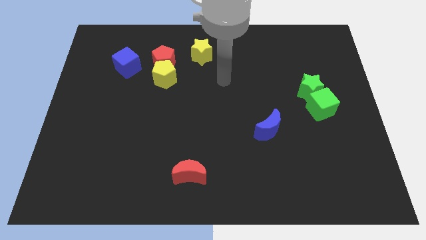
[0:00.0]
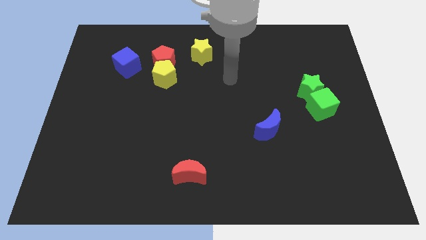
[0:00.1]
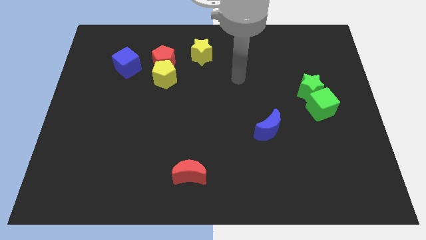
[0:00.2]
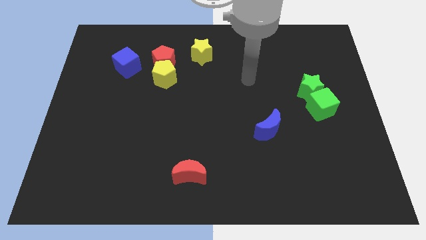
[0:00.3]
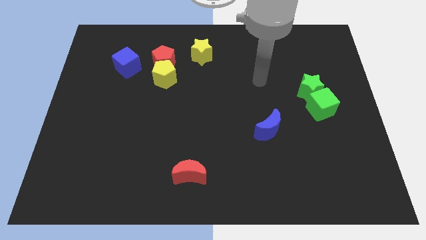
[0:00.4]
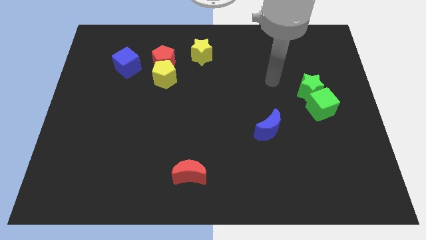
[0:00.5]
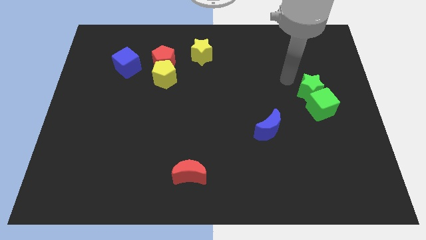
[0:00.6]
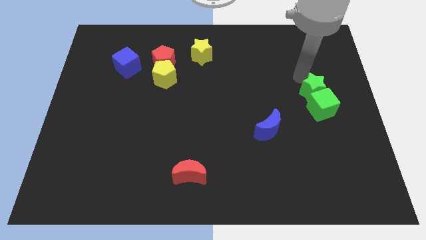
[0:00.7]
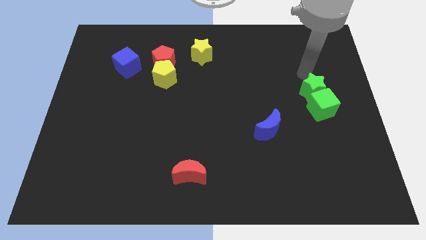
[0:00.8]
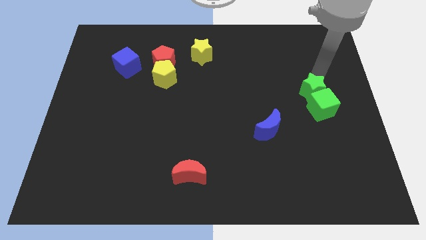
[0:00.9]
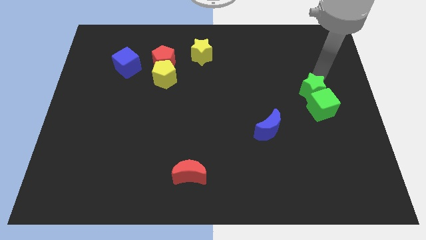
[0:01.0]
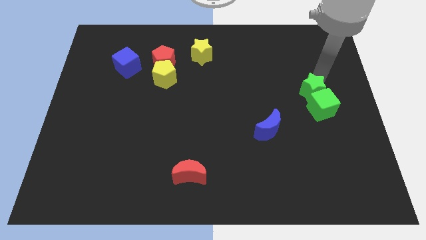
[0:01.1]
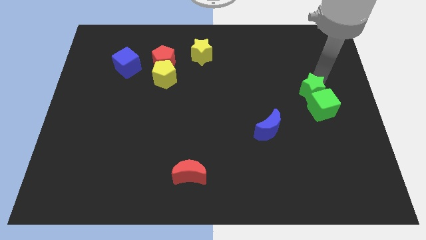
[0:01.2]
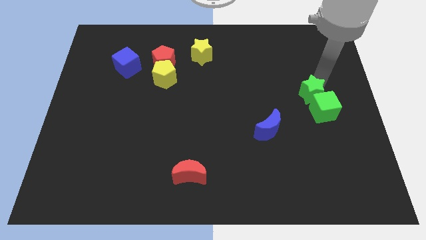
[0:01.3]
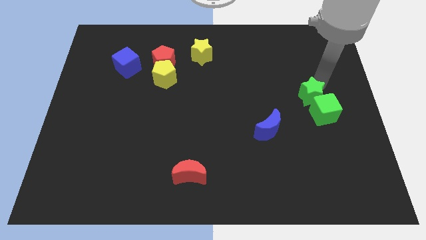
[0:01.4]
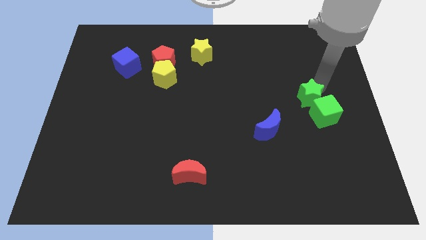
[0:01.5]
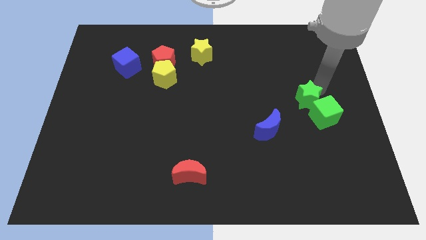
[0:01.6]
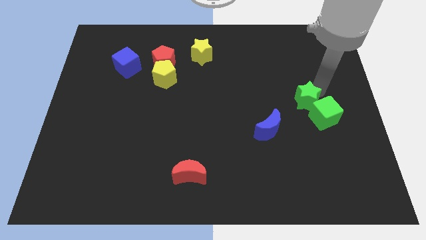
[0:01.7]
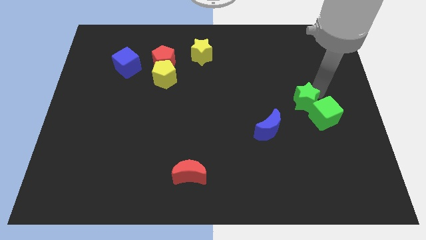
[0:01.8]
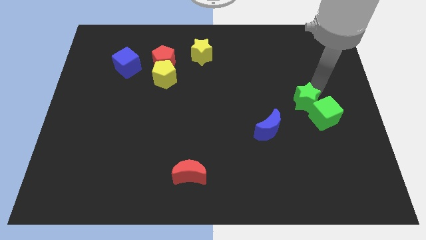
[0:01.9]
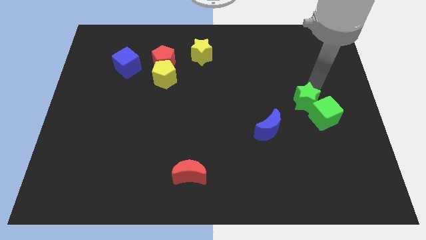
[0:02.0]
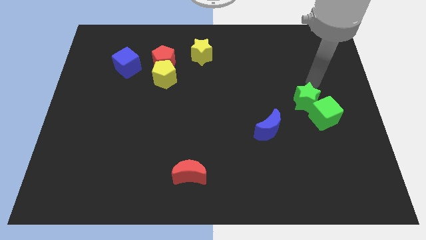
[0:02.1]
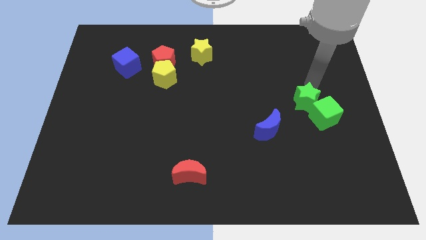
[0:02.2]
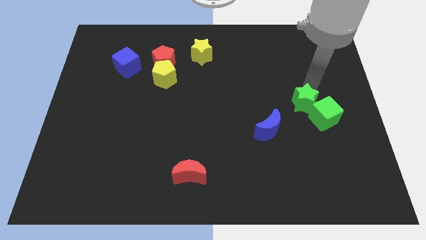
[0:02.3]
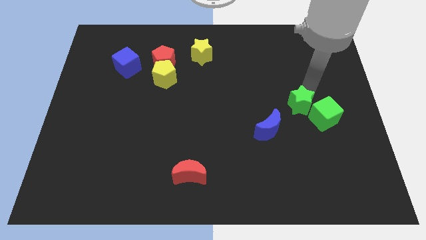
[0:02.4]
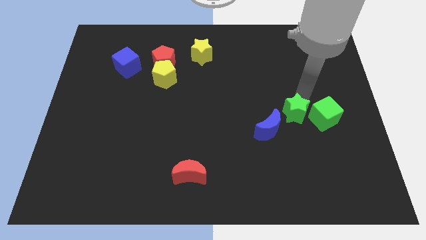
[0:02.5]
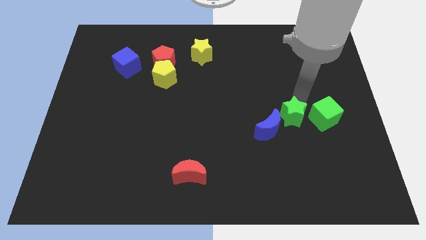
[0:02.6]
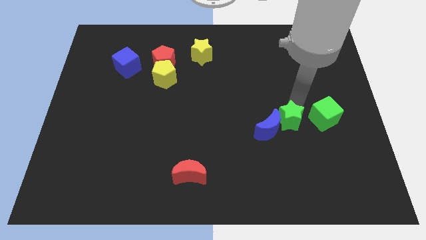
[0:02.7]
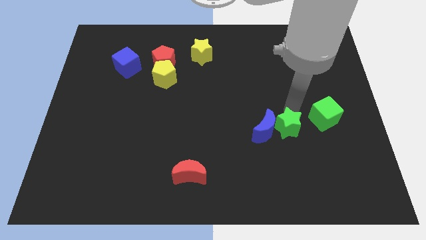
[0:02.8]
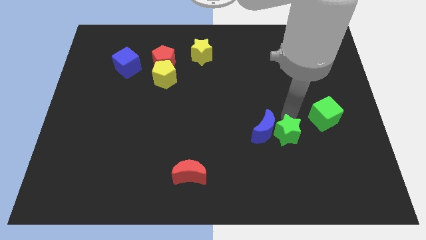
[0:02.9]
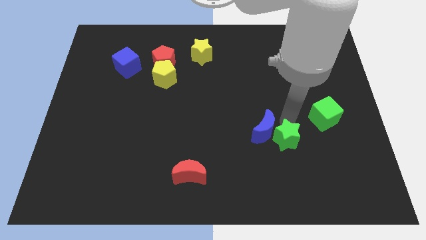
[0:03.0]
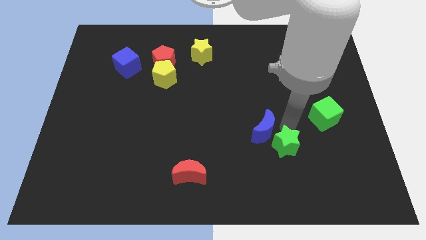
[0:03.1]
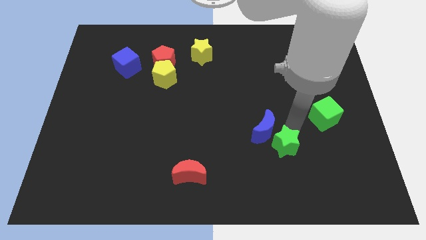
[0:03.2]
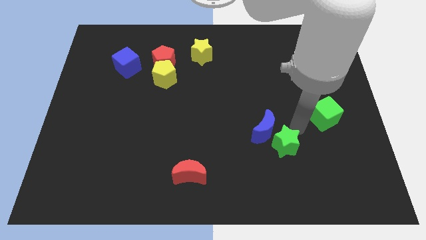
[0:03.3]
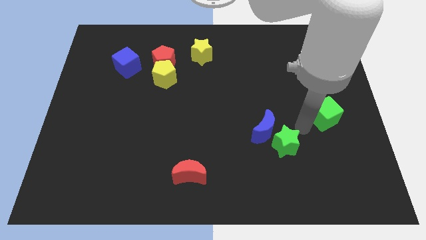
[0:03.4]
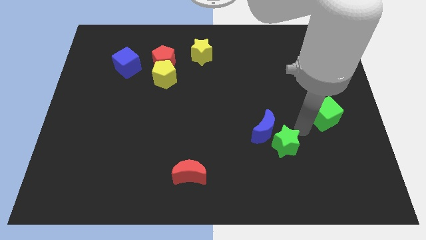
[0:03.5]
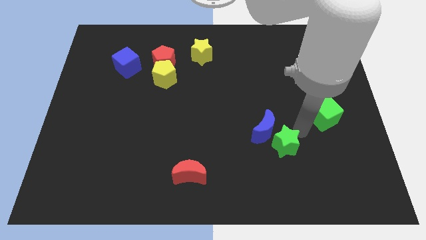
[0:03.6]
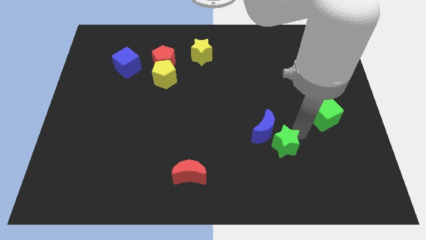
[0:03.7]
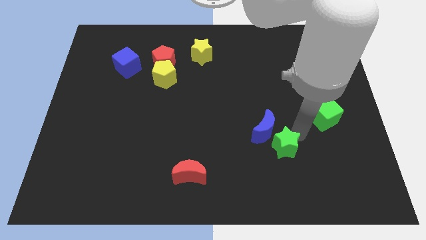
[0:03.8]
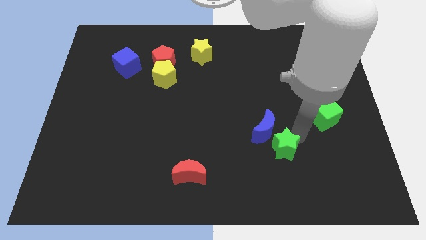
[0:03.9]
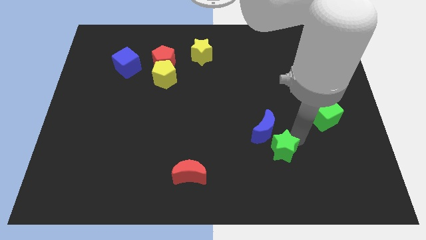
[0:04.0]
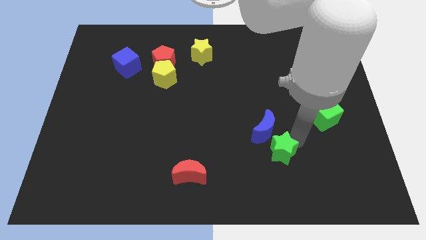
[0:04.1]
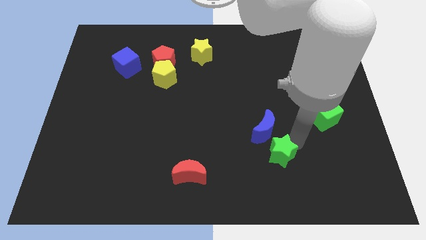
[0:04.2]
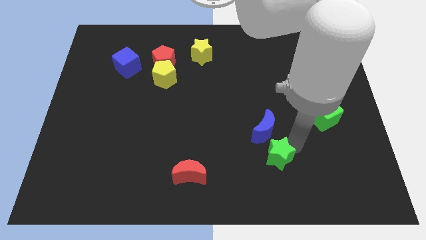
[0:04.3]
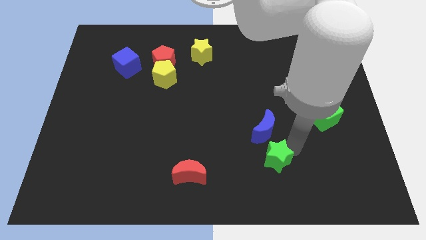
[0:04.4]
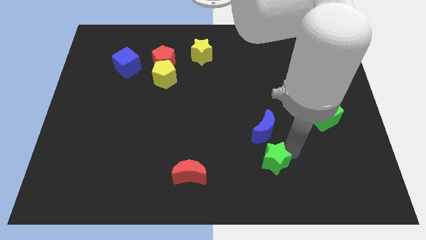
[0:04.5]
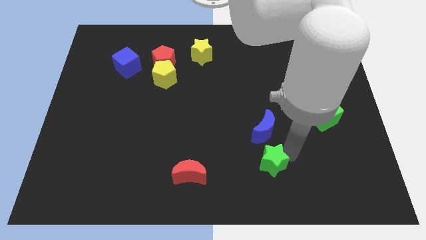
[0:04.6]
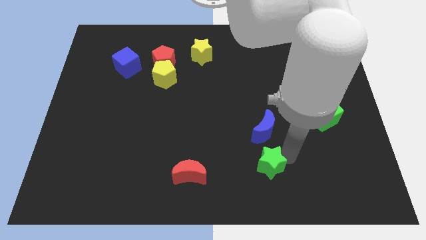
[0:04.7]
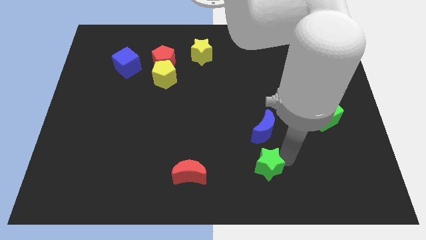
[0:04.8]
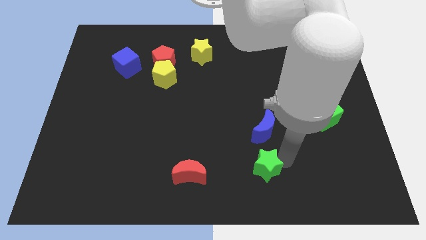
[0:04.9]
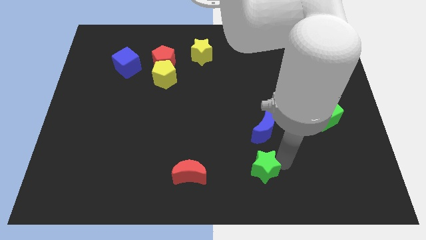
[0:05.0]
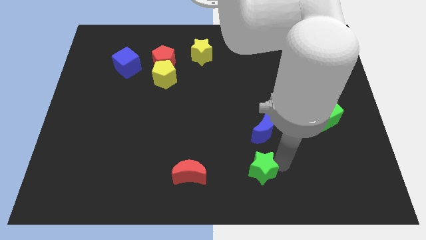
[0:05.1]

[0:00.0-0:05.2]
slide the green star to the bottom side

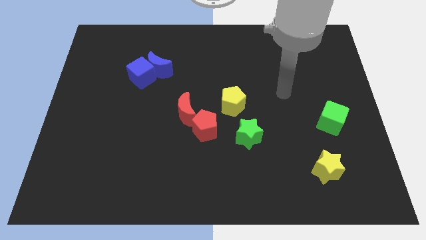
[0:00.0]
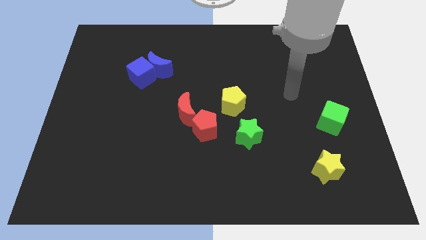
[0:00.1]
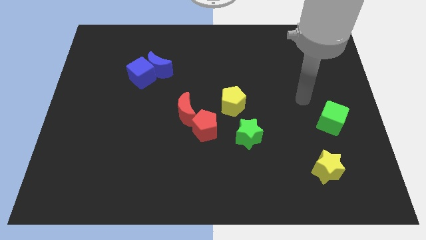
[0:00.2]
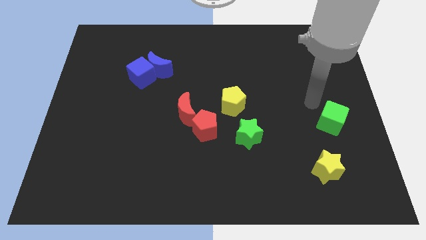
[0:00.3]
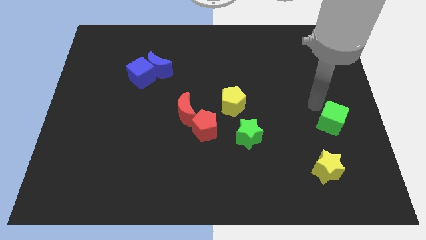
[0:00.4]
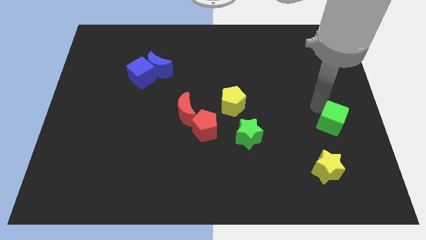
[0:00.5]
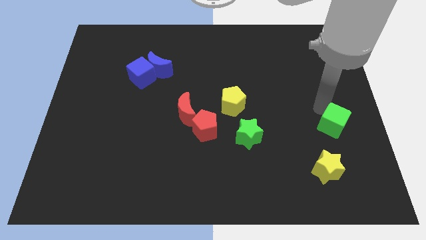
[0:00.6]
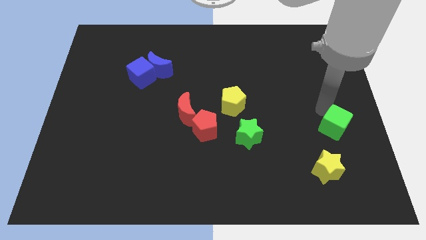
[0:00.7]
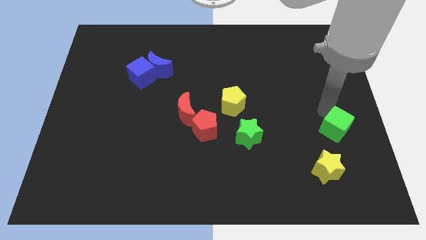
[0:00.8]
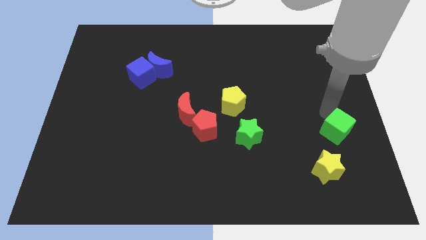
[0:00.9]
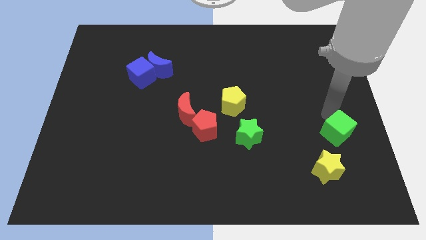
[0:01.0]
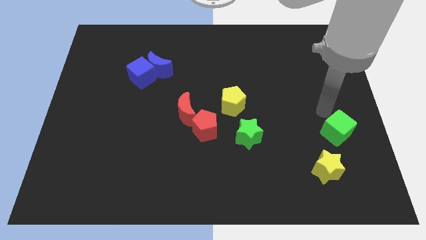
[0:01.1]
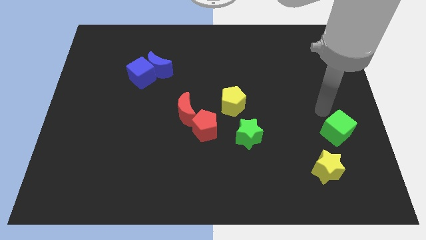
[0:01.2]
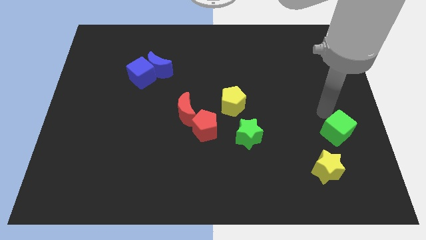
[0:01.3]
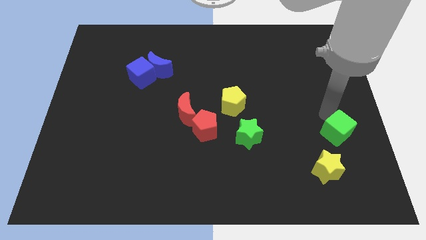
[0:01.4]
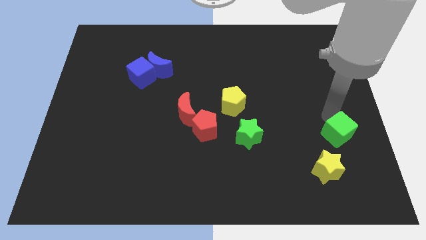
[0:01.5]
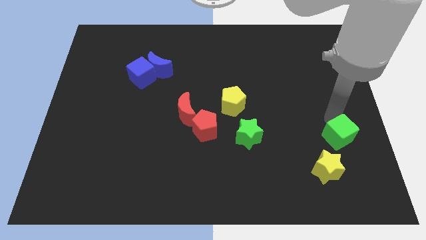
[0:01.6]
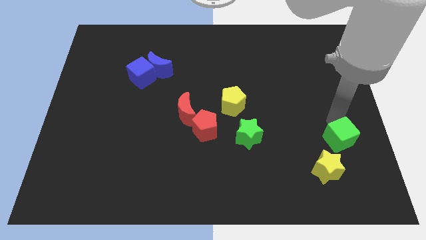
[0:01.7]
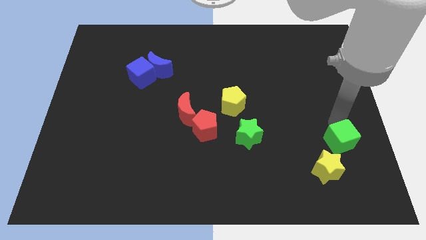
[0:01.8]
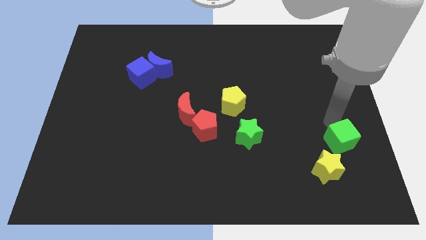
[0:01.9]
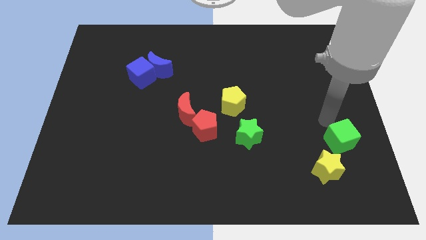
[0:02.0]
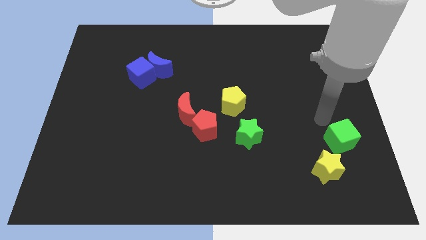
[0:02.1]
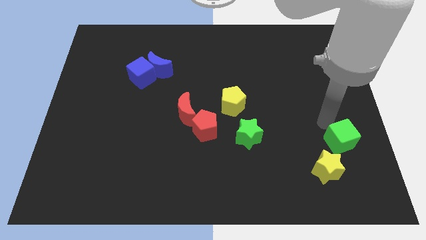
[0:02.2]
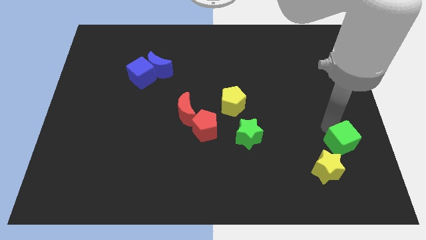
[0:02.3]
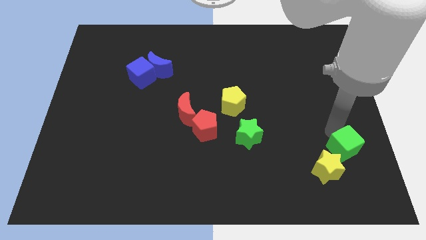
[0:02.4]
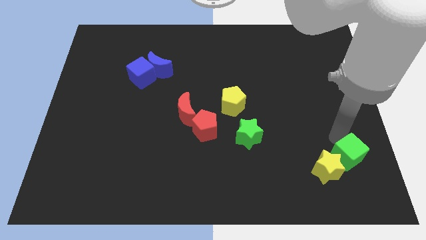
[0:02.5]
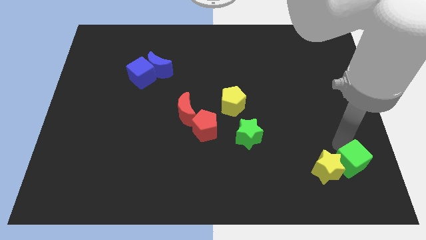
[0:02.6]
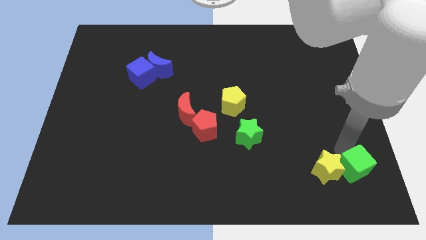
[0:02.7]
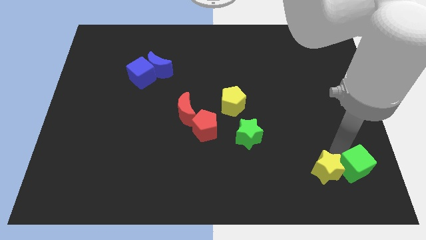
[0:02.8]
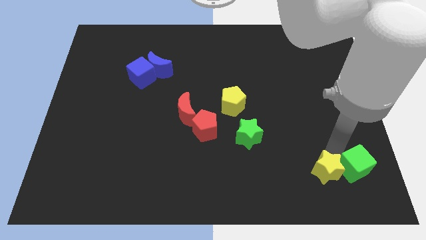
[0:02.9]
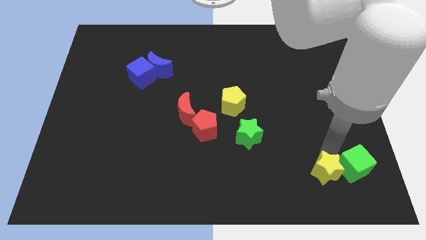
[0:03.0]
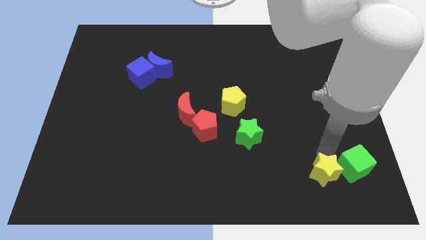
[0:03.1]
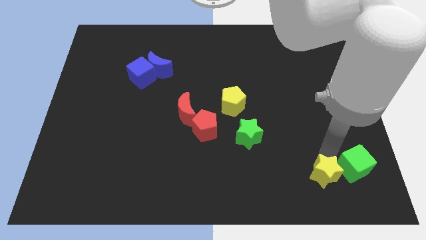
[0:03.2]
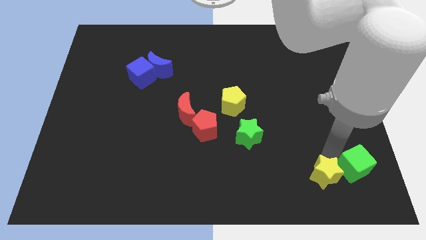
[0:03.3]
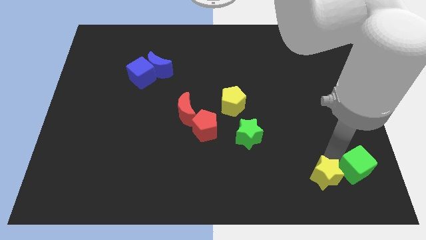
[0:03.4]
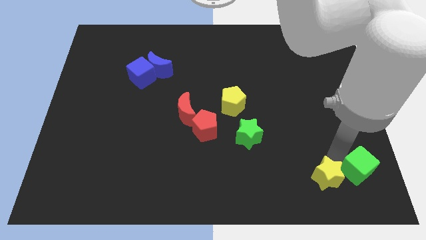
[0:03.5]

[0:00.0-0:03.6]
push the green cube to the lower right corner
